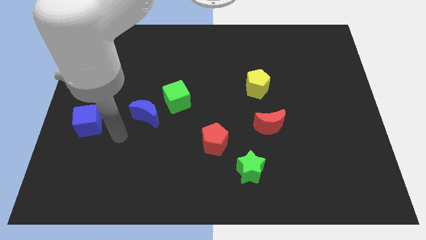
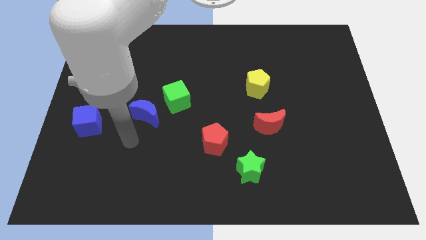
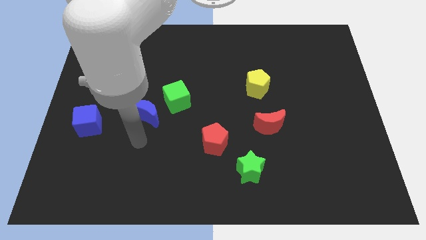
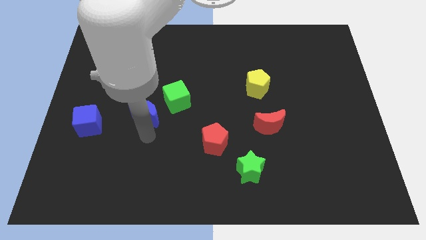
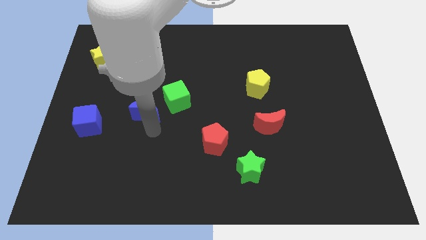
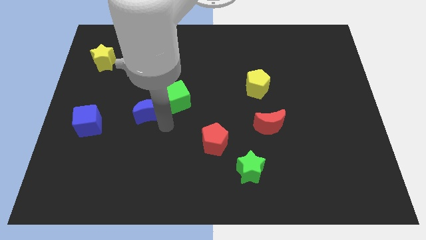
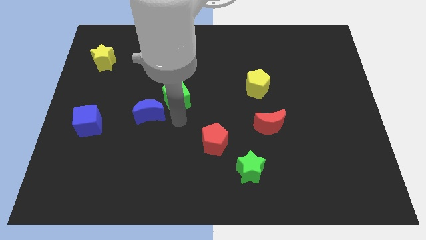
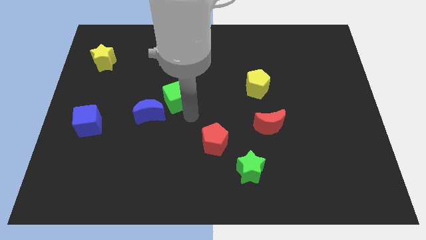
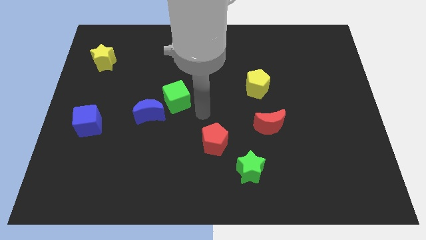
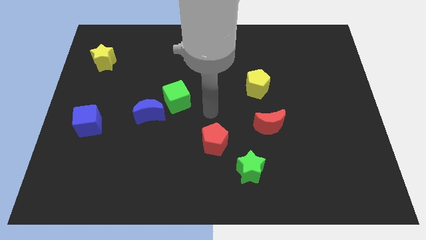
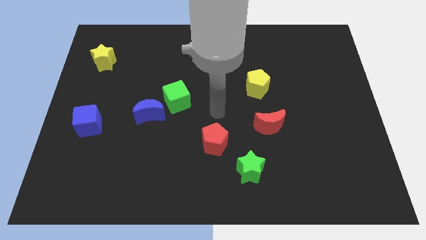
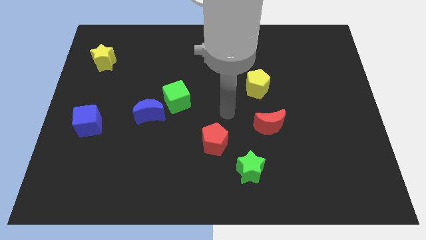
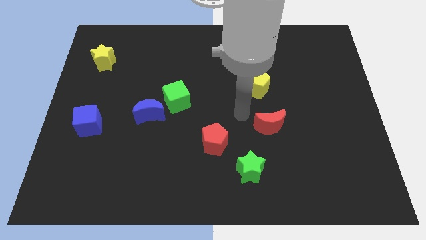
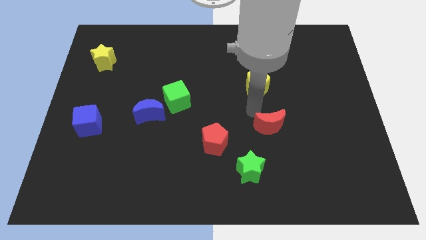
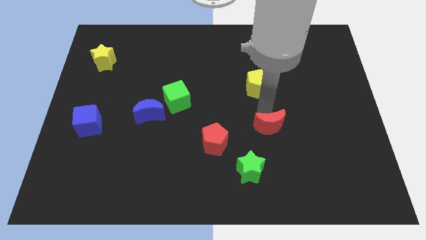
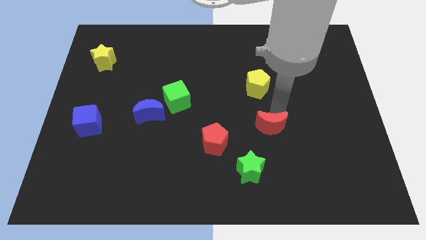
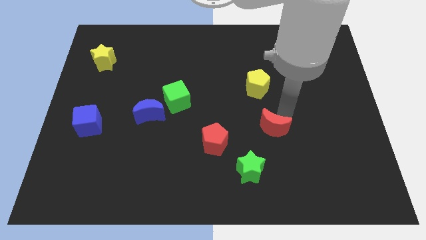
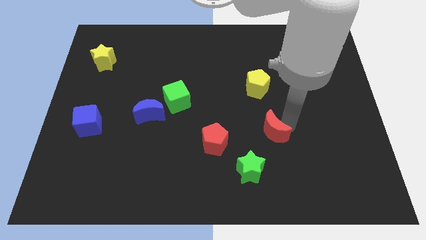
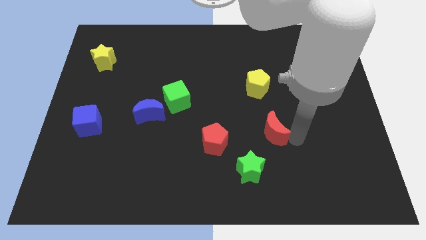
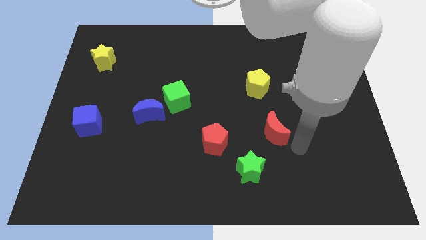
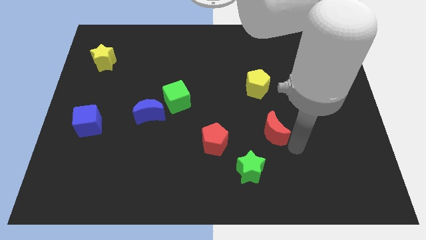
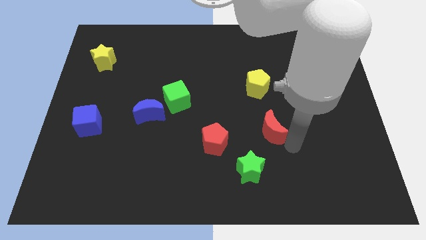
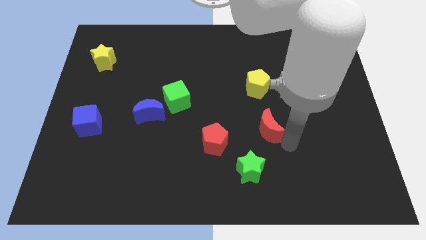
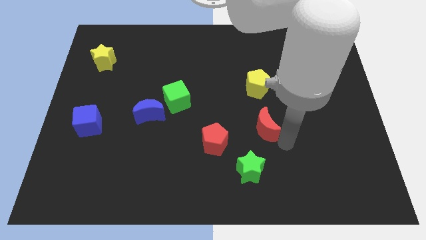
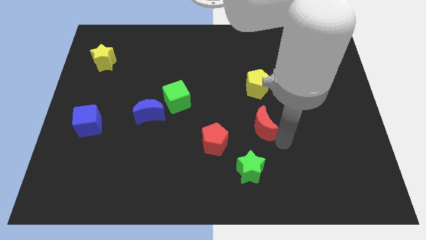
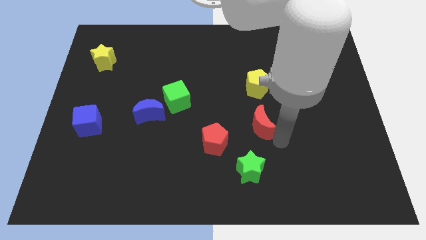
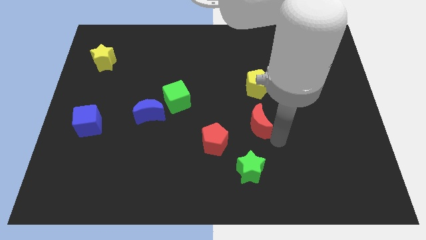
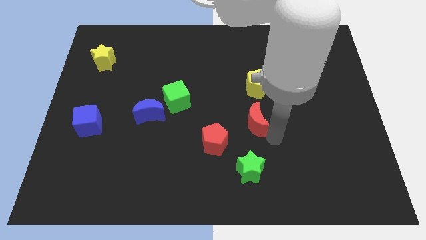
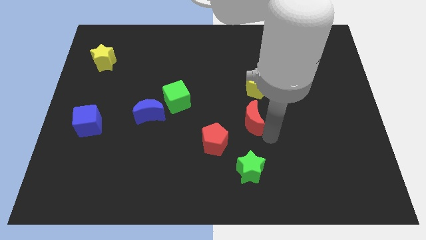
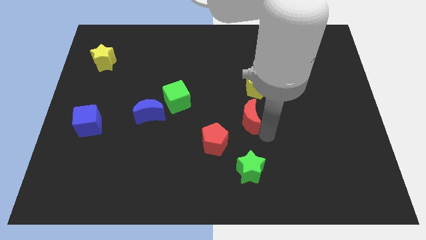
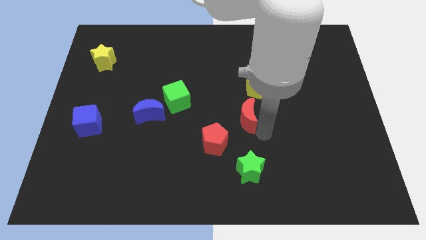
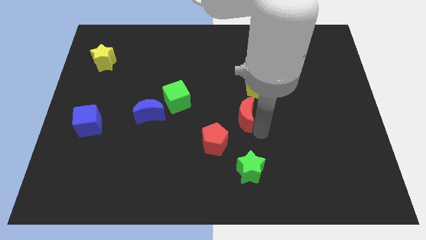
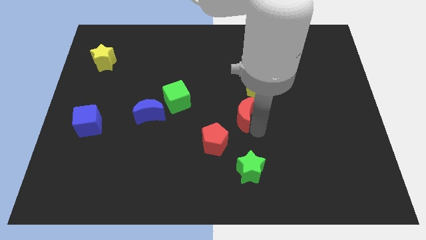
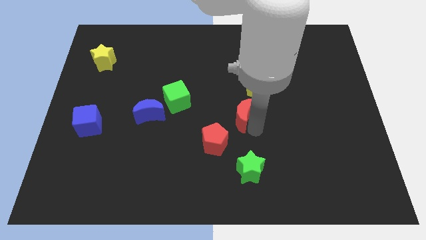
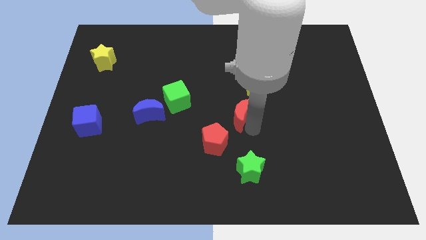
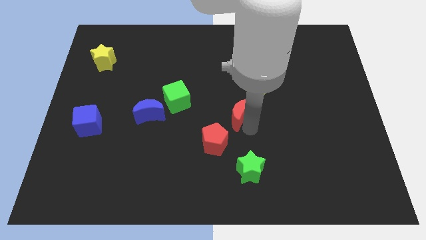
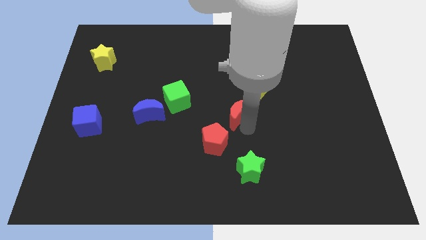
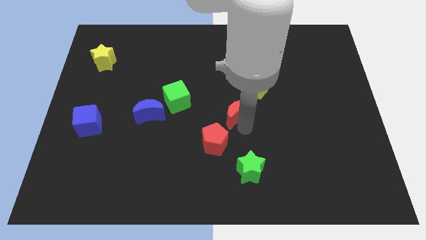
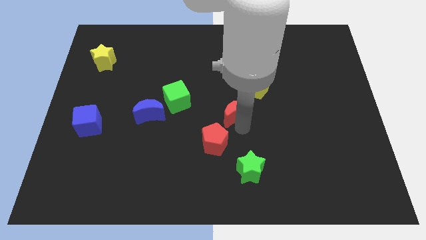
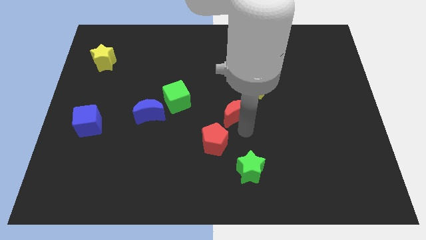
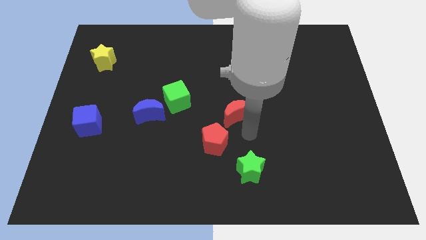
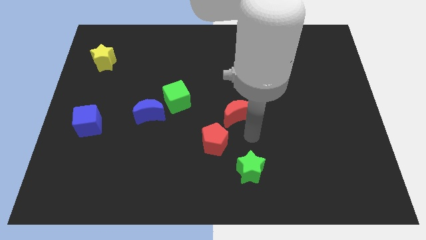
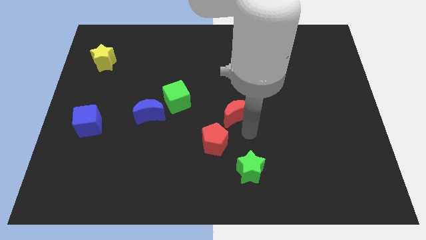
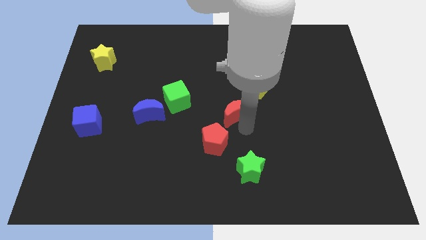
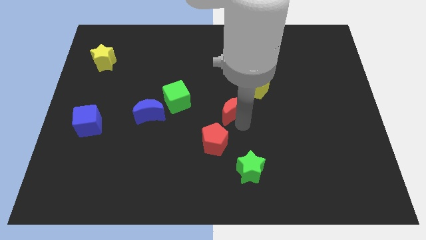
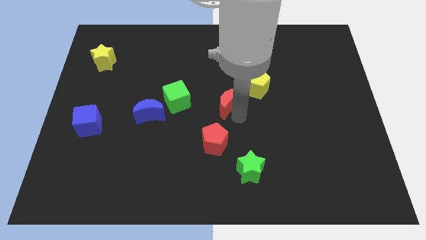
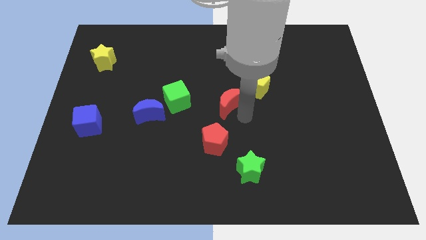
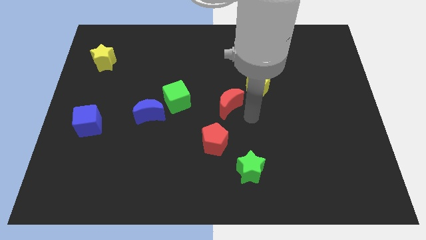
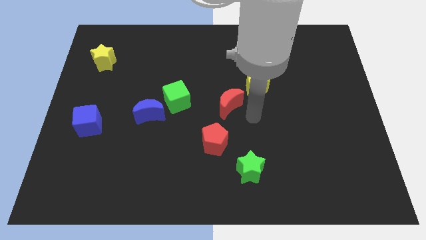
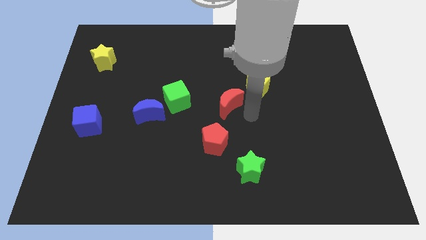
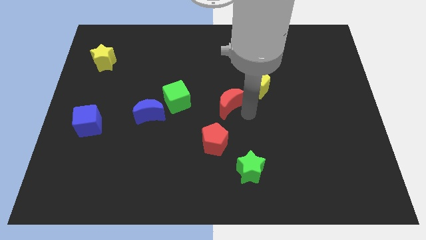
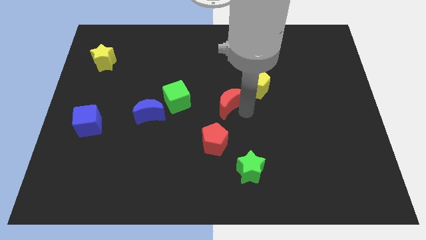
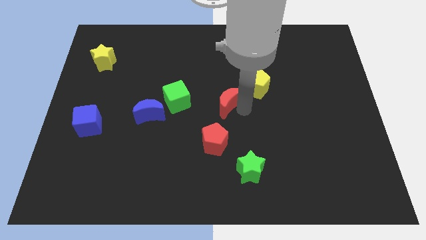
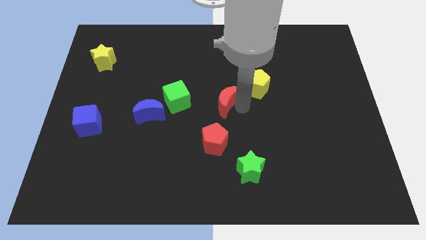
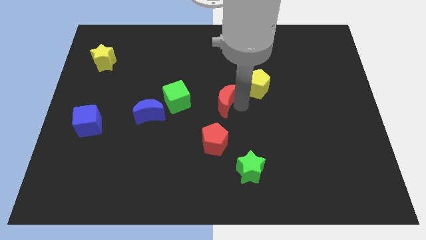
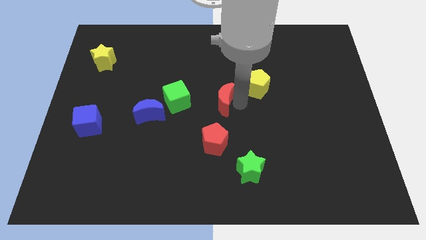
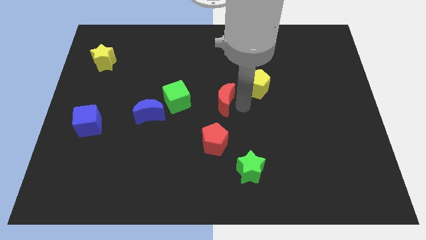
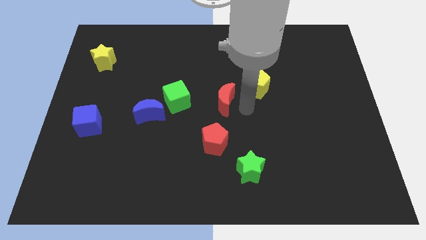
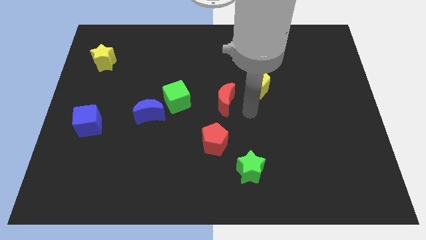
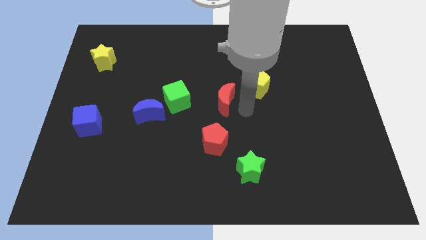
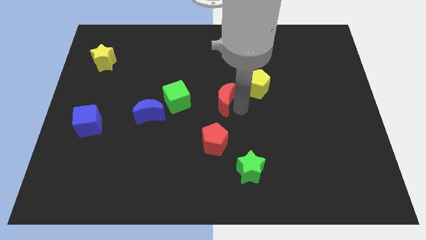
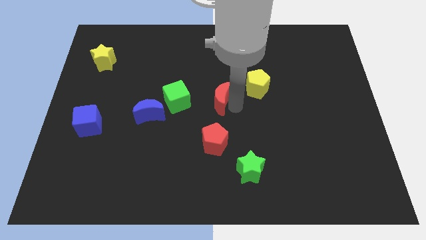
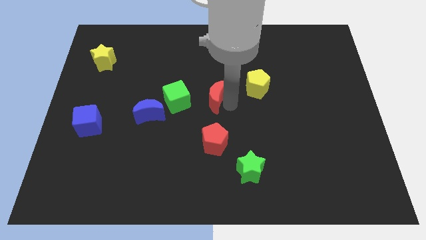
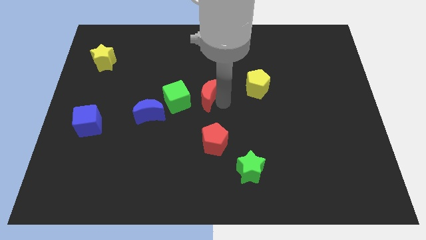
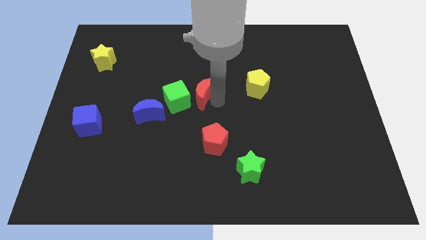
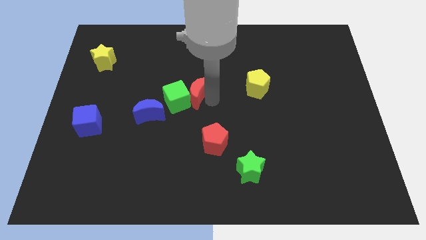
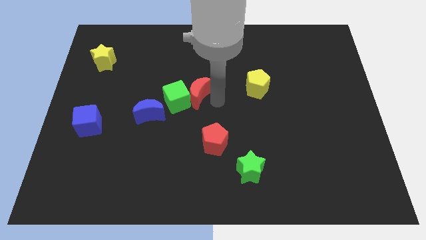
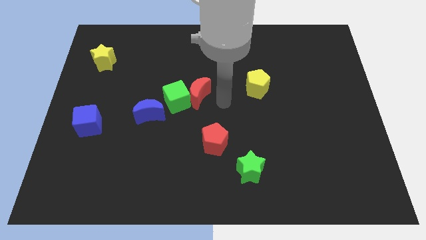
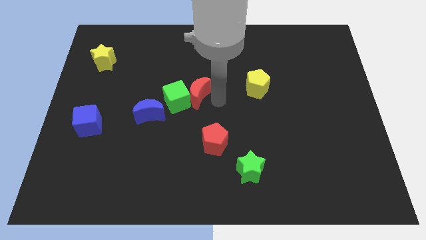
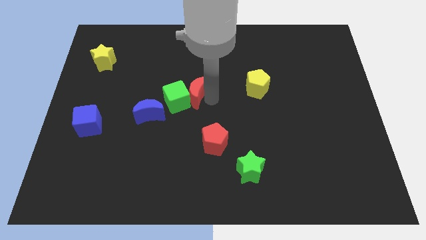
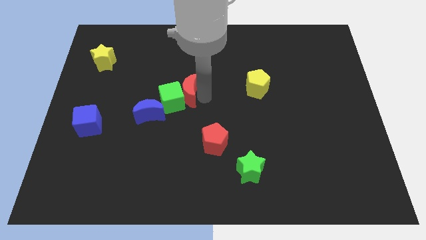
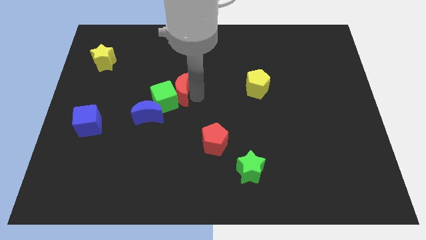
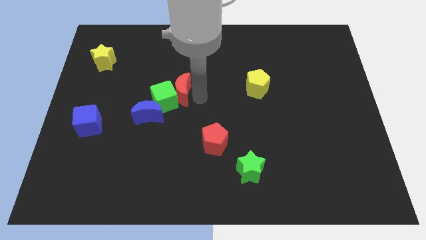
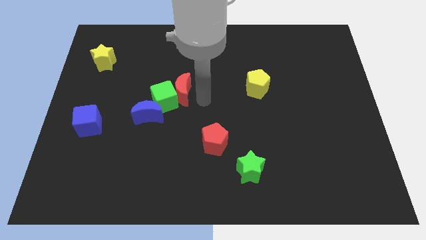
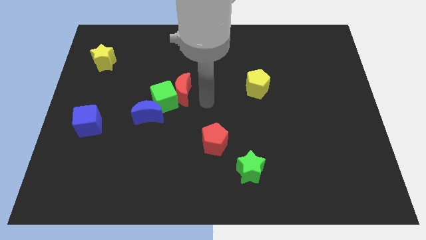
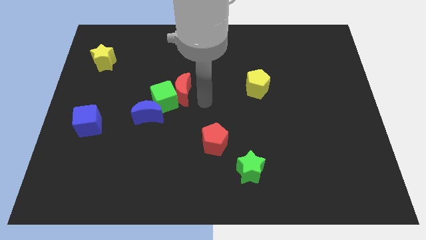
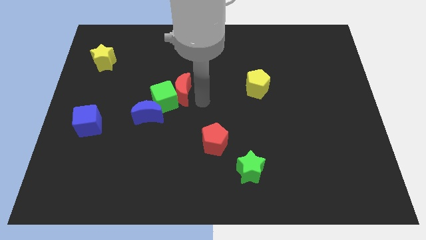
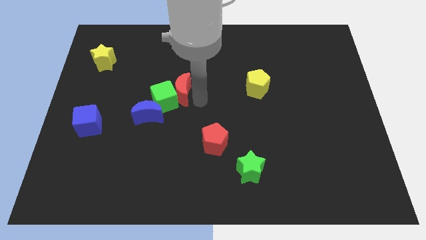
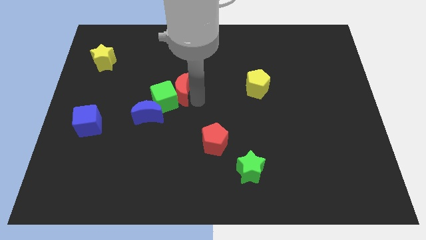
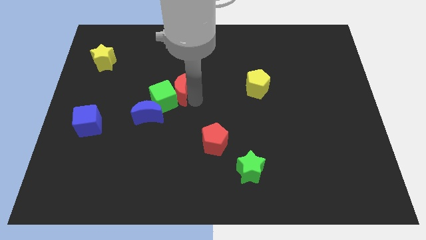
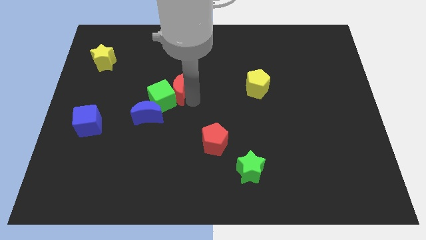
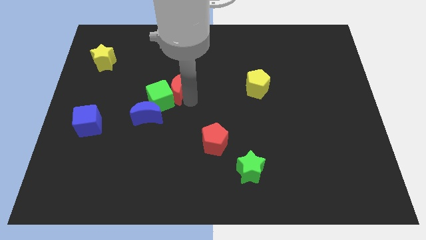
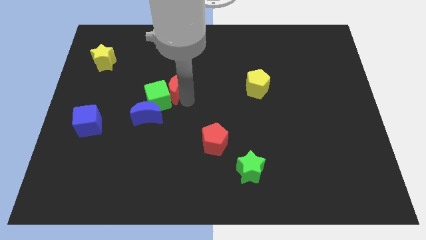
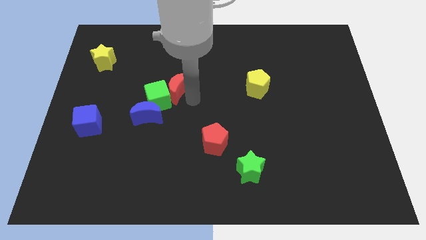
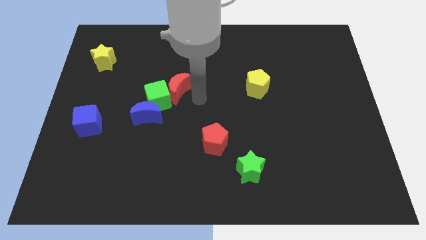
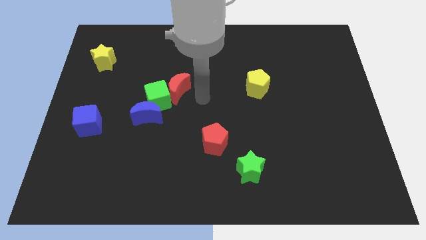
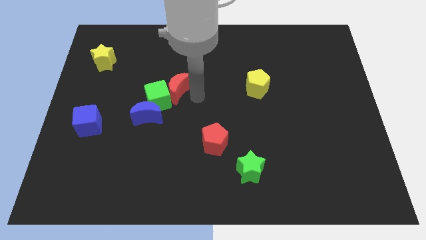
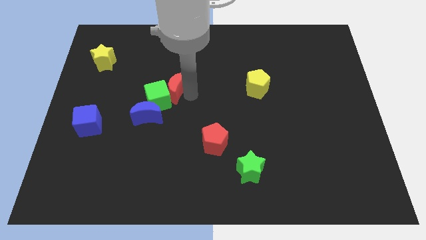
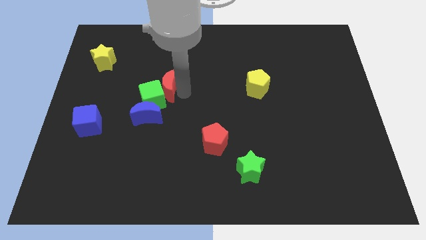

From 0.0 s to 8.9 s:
slide the red moon to the top of the blue moon
